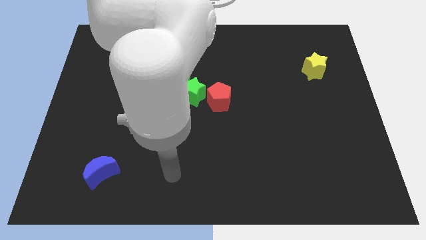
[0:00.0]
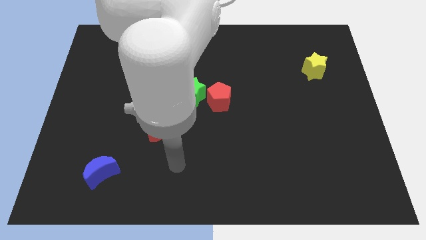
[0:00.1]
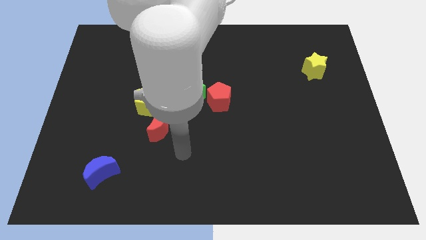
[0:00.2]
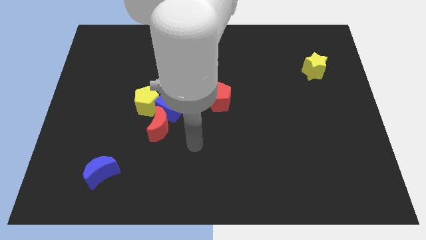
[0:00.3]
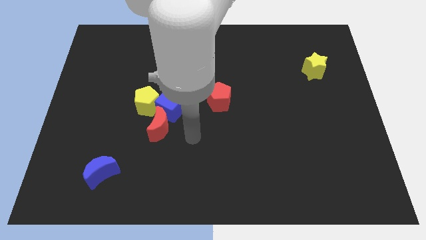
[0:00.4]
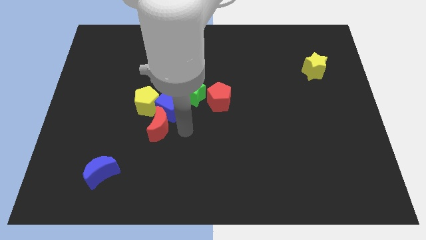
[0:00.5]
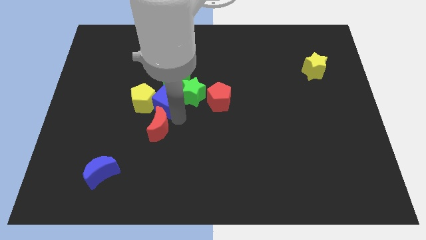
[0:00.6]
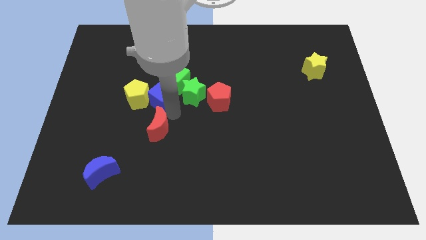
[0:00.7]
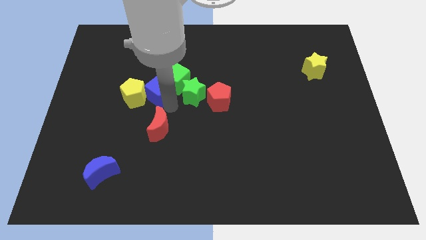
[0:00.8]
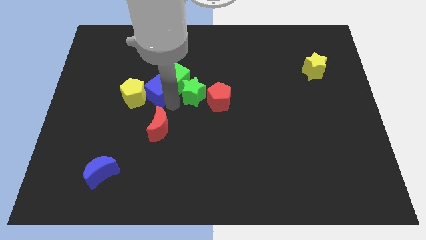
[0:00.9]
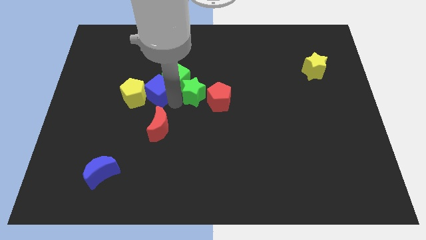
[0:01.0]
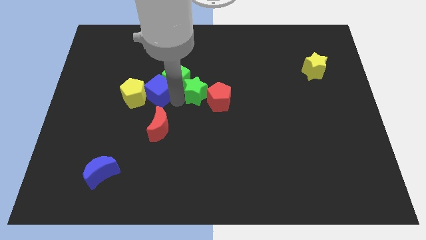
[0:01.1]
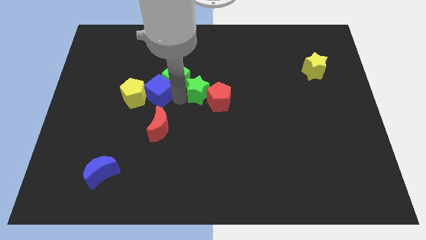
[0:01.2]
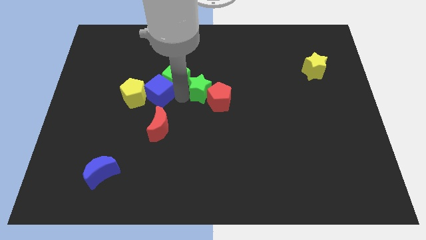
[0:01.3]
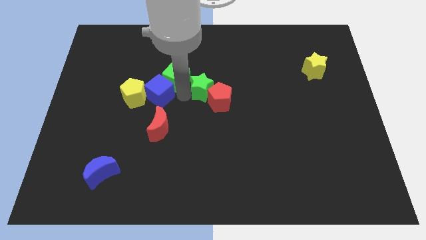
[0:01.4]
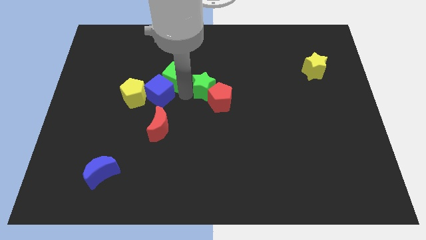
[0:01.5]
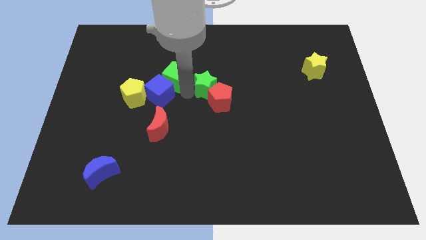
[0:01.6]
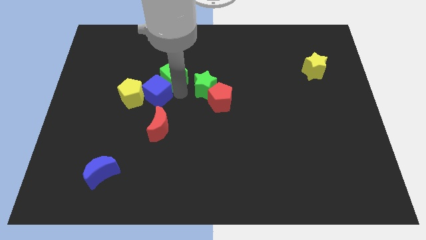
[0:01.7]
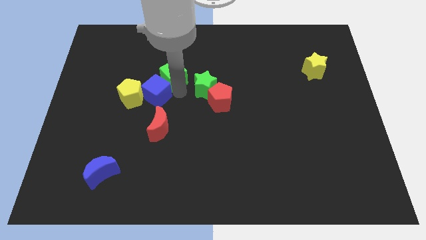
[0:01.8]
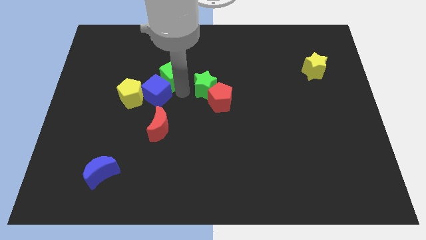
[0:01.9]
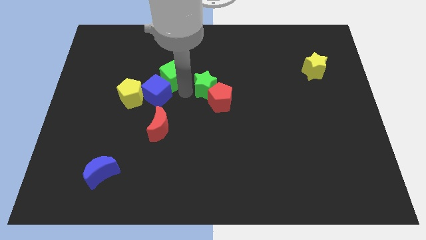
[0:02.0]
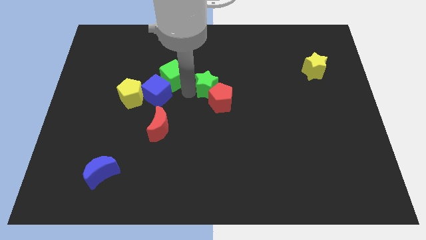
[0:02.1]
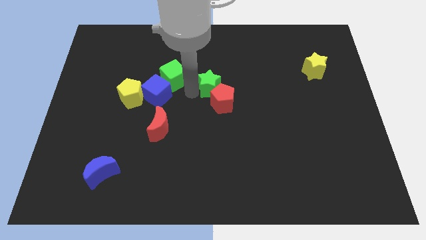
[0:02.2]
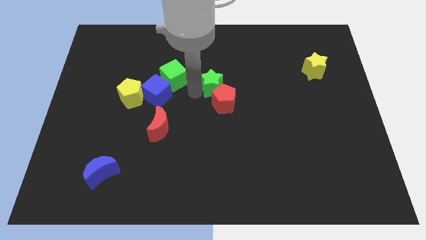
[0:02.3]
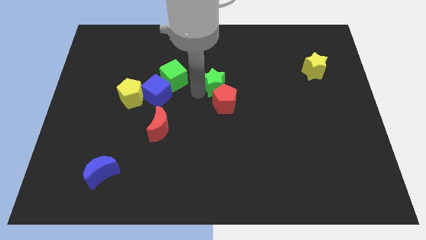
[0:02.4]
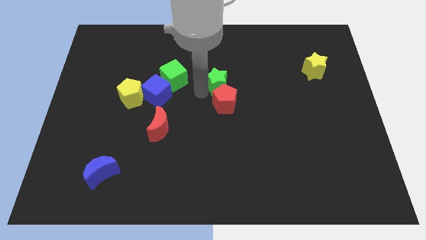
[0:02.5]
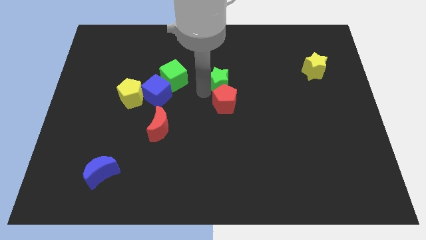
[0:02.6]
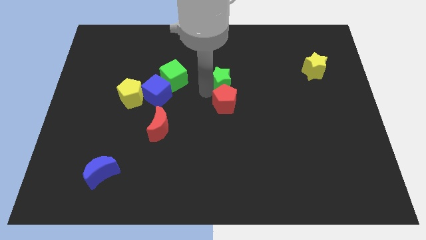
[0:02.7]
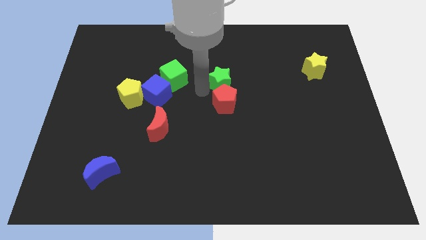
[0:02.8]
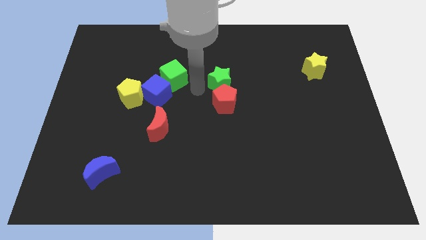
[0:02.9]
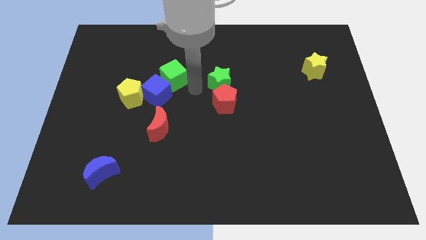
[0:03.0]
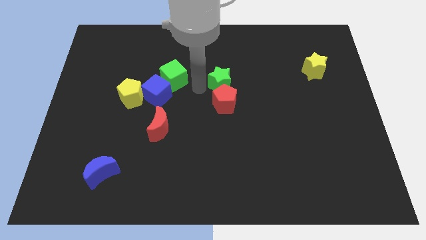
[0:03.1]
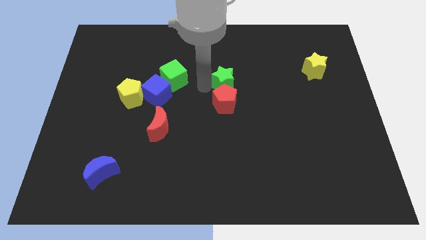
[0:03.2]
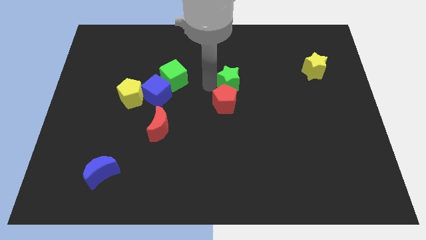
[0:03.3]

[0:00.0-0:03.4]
separate the green star from the green cube, red pentagon, and blue cube

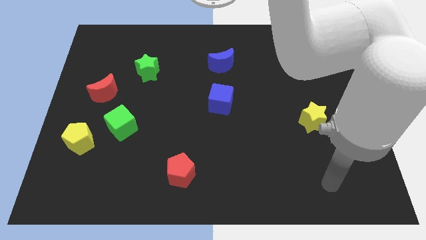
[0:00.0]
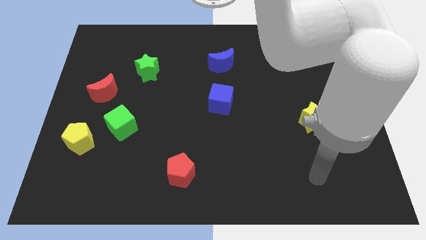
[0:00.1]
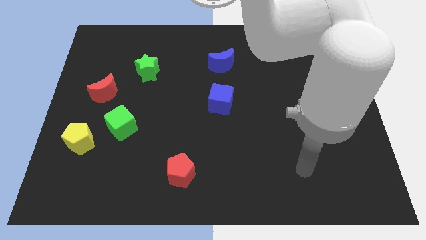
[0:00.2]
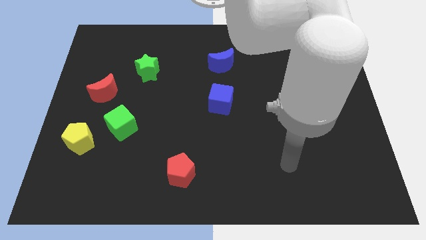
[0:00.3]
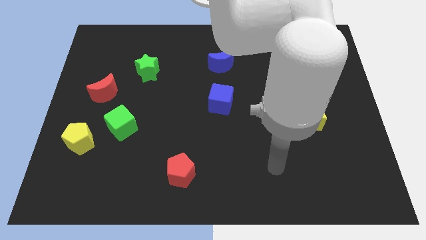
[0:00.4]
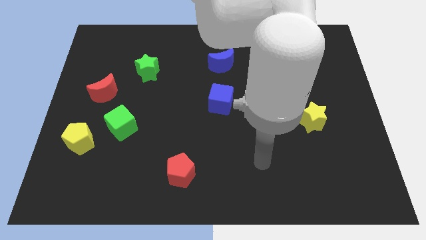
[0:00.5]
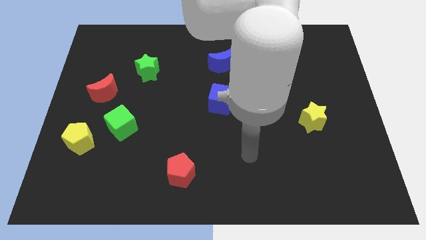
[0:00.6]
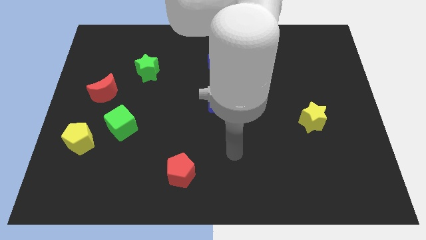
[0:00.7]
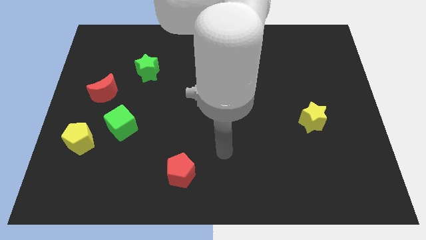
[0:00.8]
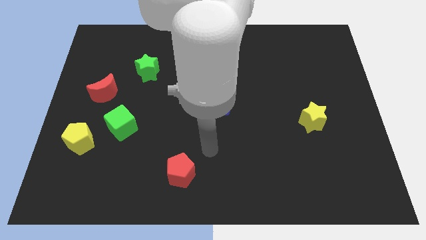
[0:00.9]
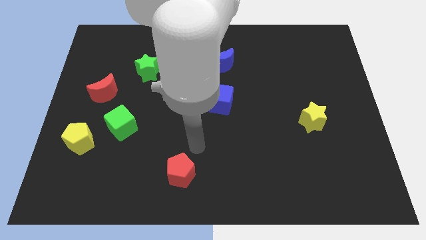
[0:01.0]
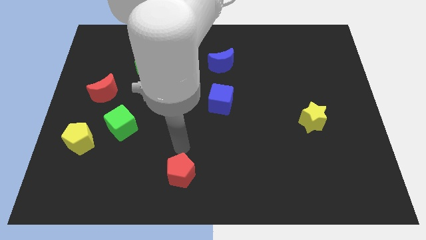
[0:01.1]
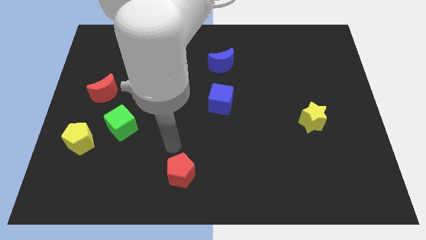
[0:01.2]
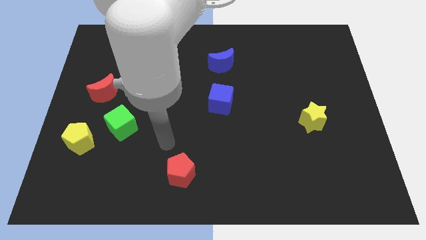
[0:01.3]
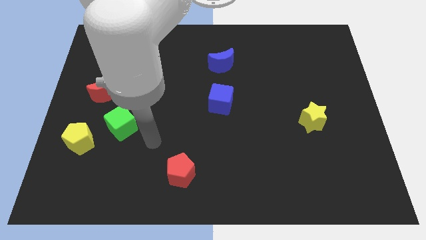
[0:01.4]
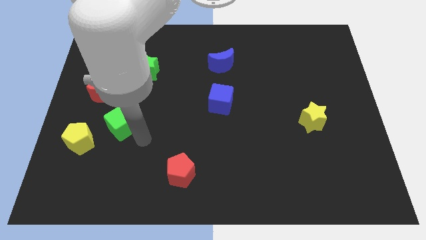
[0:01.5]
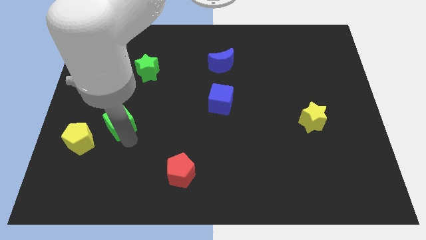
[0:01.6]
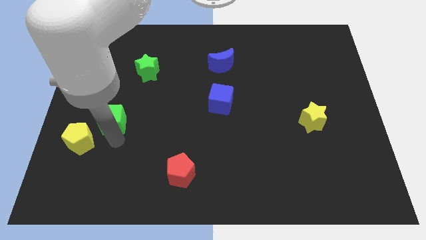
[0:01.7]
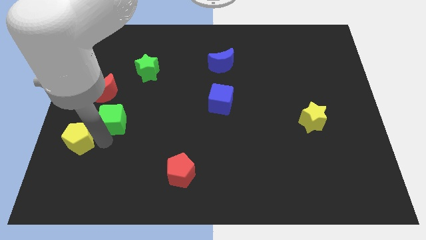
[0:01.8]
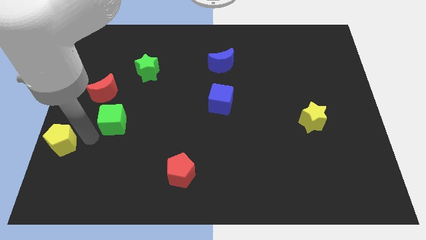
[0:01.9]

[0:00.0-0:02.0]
pull the green cube apart from the yellow pentagon

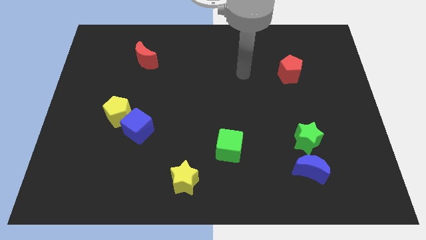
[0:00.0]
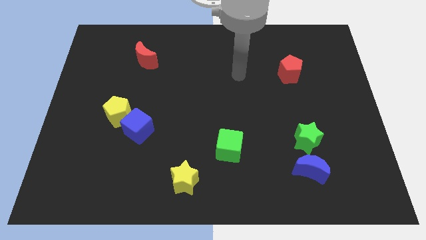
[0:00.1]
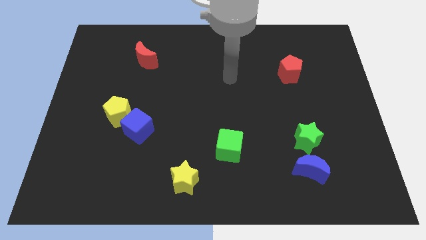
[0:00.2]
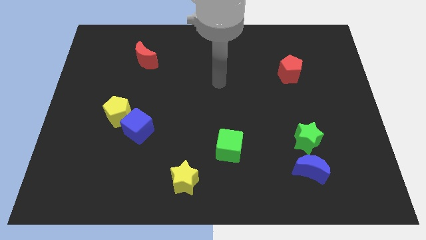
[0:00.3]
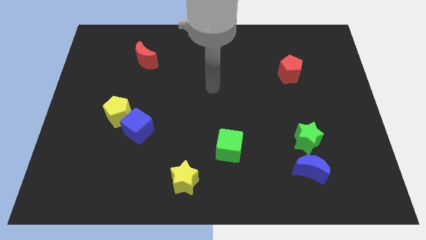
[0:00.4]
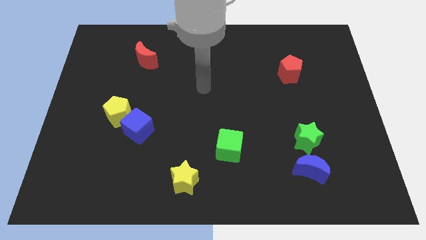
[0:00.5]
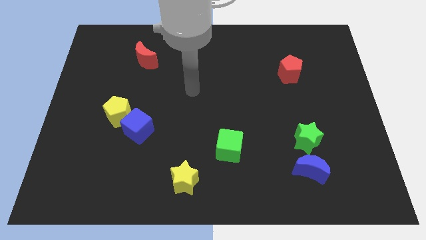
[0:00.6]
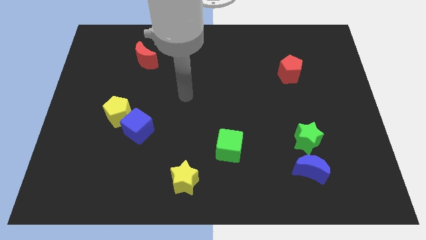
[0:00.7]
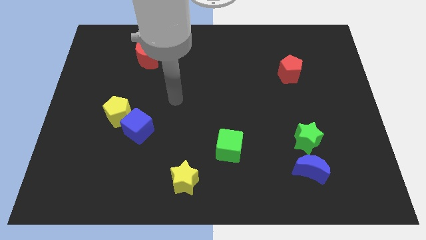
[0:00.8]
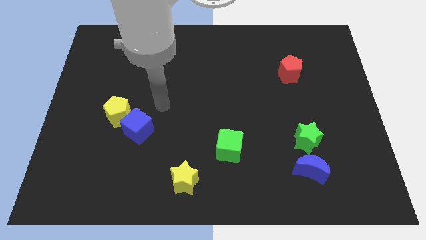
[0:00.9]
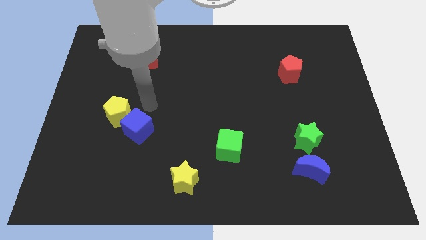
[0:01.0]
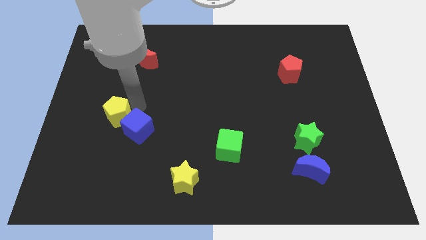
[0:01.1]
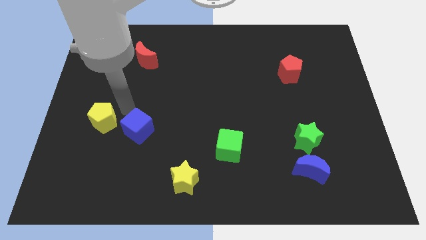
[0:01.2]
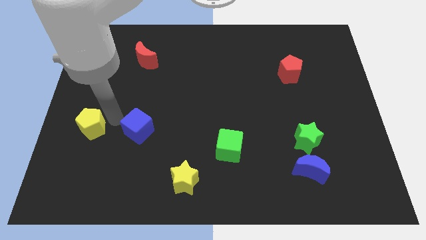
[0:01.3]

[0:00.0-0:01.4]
move the blue cube away from the yellow pentagon

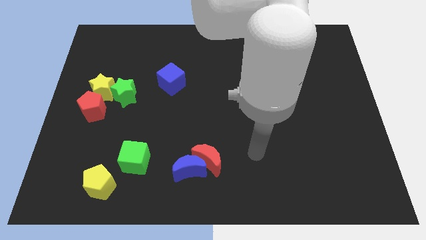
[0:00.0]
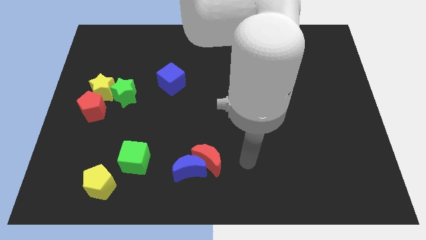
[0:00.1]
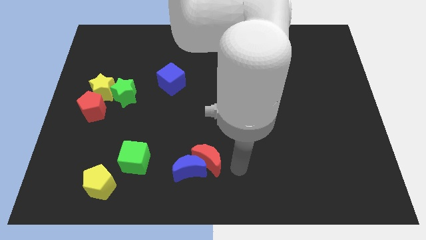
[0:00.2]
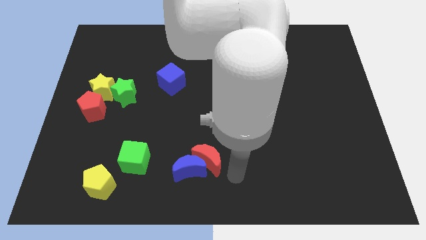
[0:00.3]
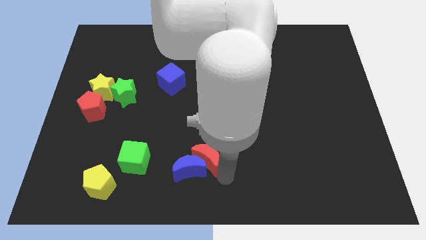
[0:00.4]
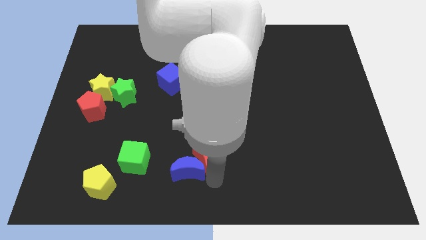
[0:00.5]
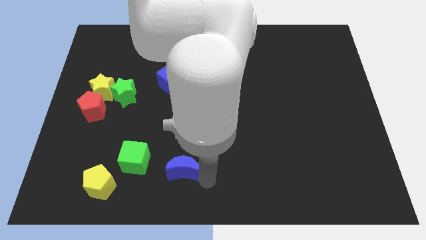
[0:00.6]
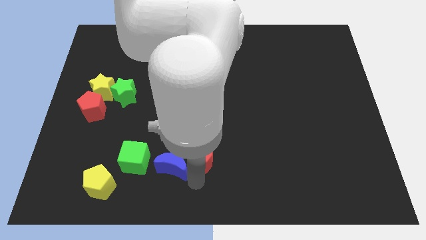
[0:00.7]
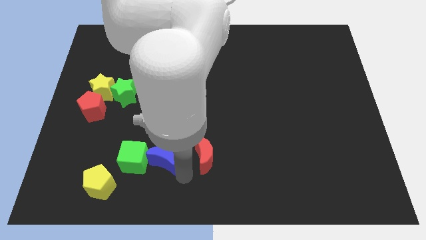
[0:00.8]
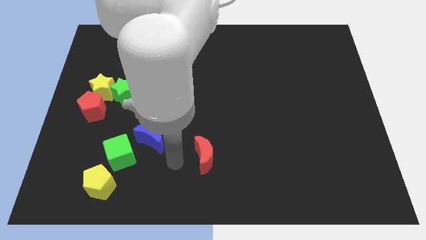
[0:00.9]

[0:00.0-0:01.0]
move the red moon away from the blue moon

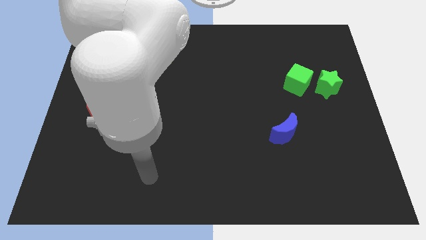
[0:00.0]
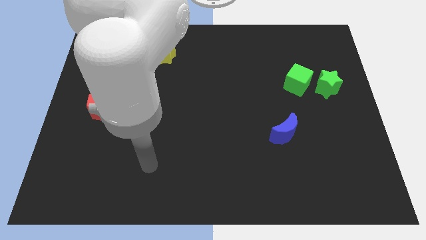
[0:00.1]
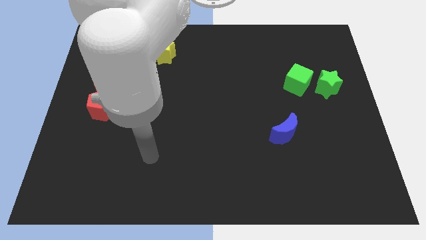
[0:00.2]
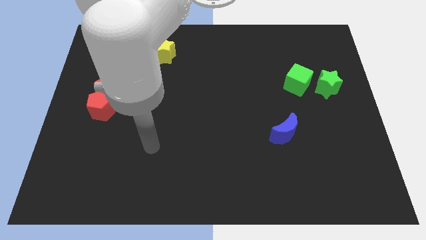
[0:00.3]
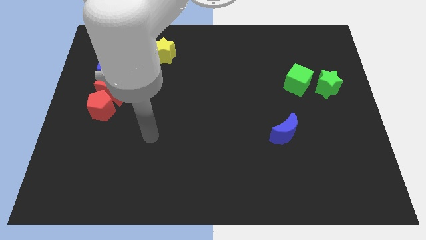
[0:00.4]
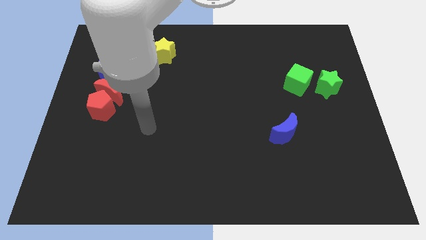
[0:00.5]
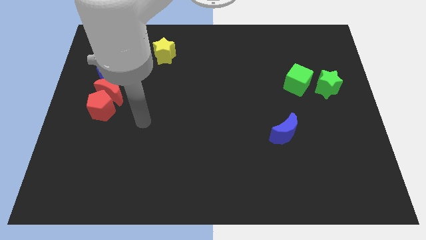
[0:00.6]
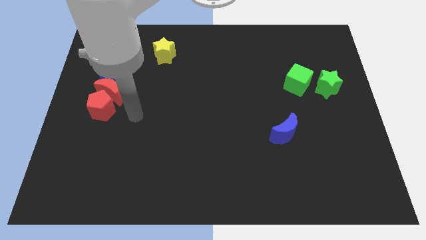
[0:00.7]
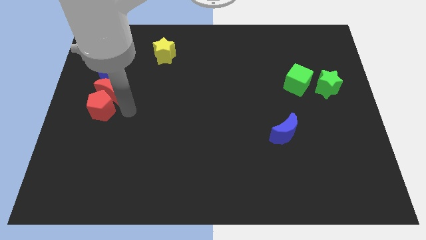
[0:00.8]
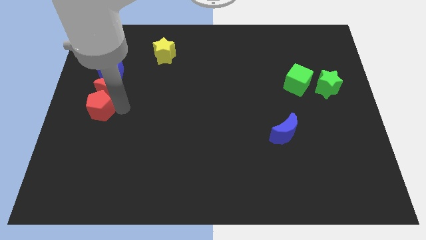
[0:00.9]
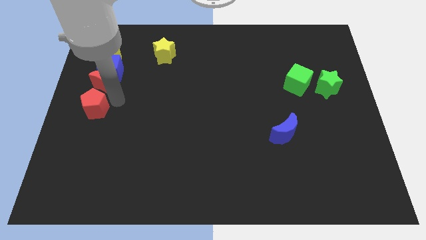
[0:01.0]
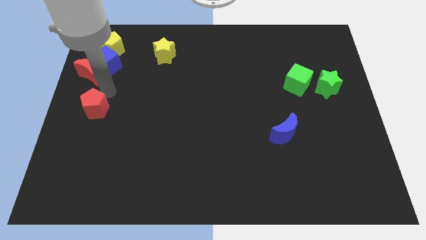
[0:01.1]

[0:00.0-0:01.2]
move the red pentagon away from the red moon

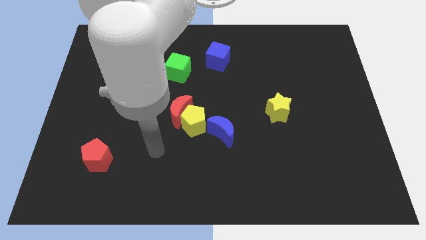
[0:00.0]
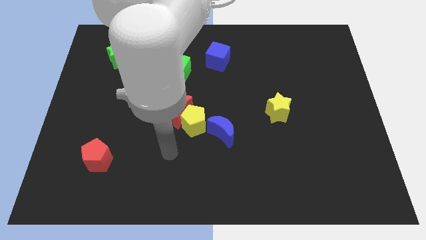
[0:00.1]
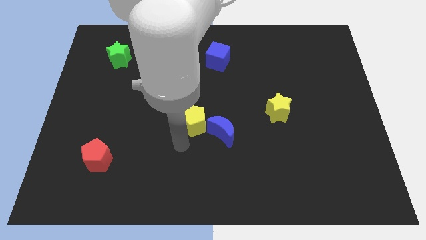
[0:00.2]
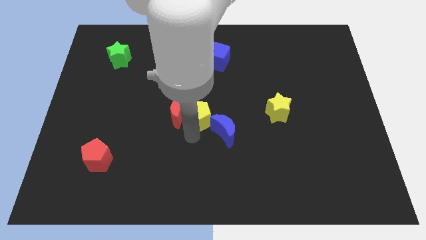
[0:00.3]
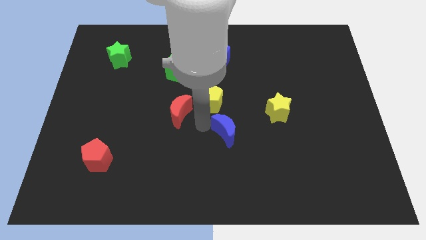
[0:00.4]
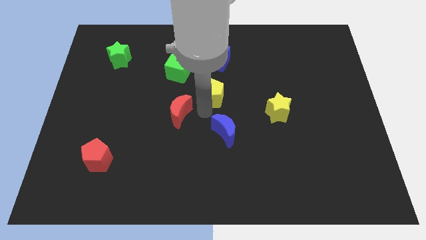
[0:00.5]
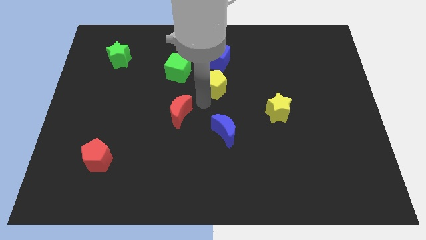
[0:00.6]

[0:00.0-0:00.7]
pull the red moon apart from the yellow pentagon
